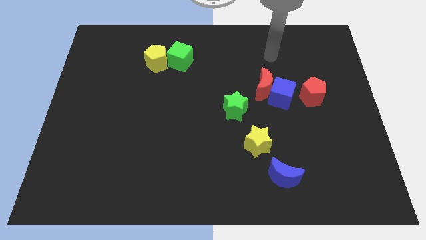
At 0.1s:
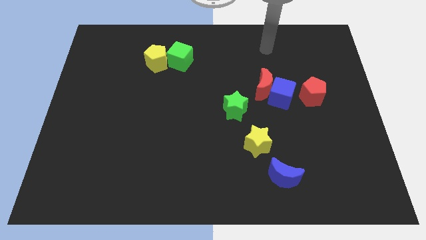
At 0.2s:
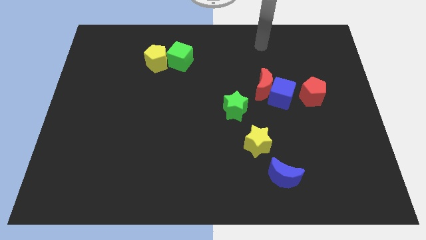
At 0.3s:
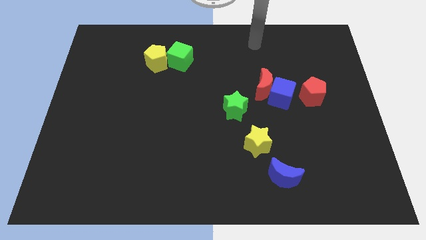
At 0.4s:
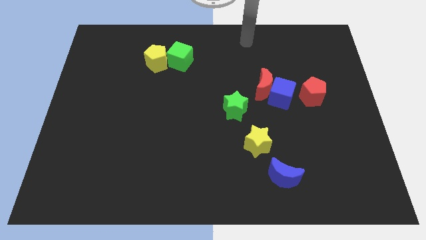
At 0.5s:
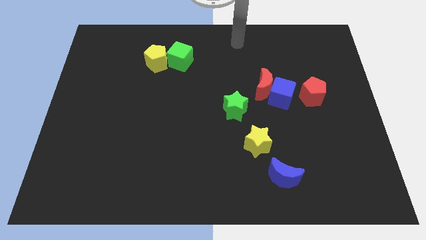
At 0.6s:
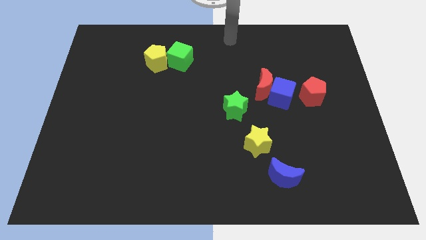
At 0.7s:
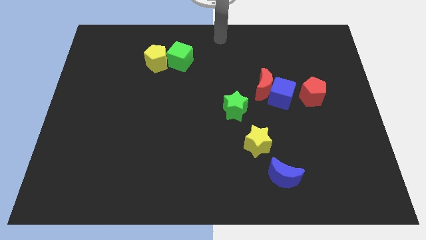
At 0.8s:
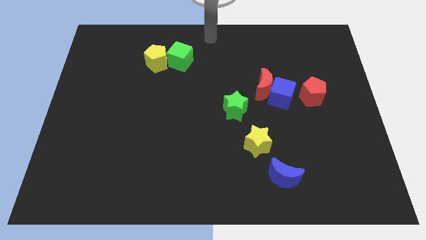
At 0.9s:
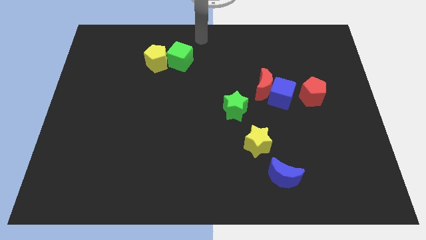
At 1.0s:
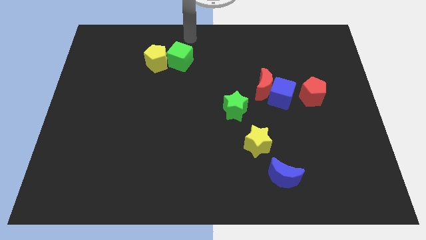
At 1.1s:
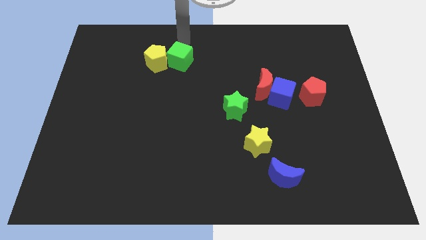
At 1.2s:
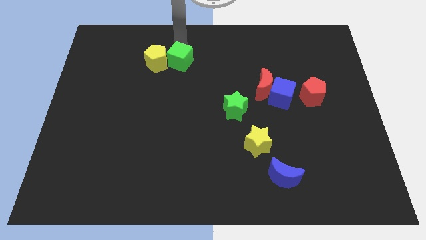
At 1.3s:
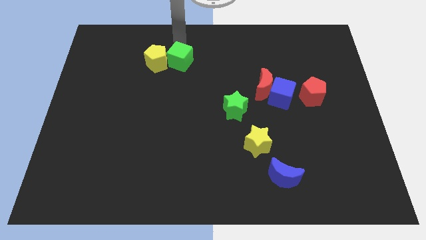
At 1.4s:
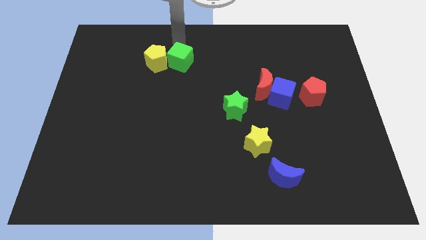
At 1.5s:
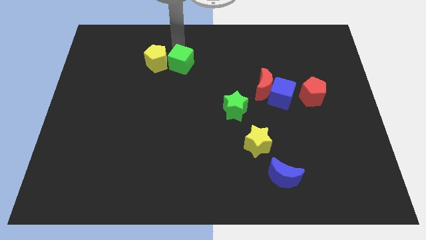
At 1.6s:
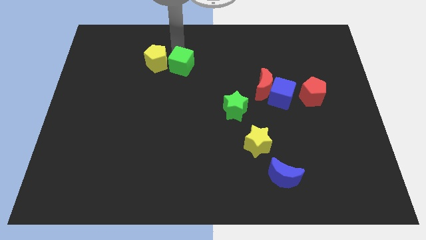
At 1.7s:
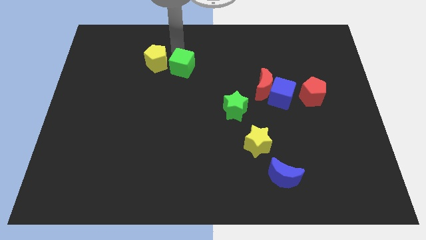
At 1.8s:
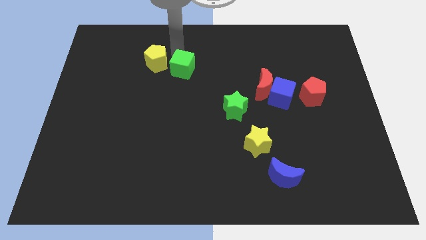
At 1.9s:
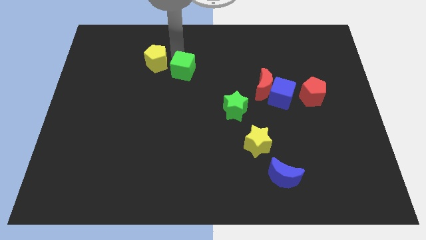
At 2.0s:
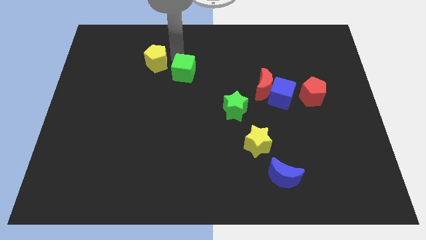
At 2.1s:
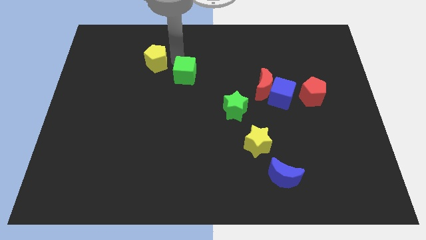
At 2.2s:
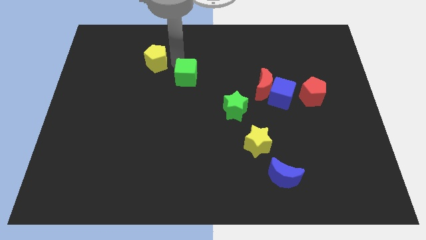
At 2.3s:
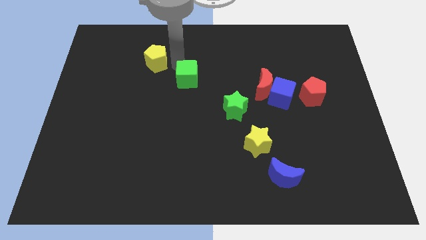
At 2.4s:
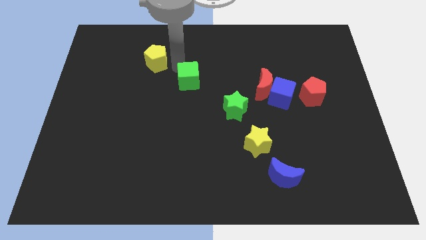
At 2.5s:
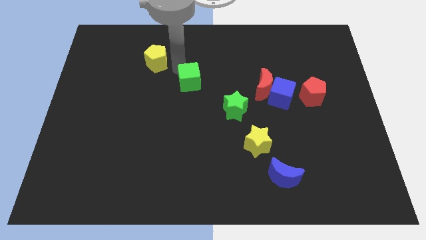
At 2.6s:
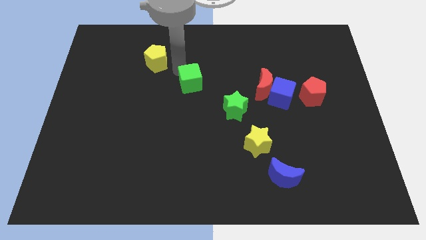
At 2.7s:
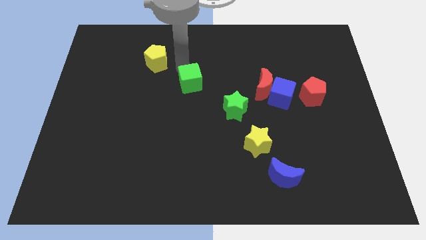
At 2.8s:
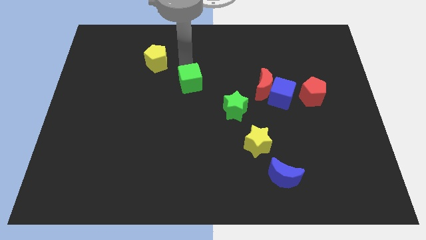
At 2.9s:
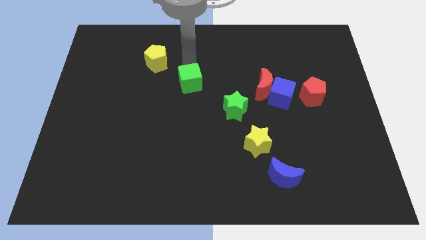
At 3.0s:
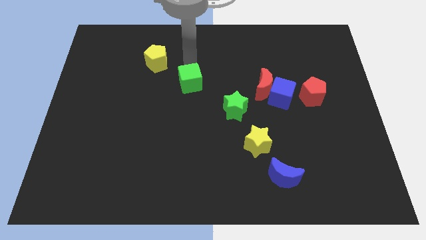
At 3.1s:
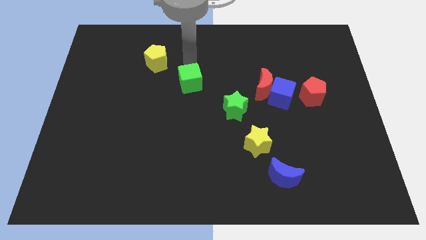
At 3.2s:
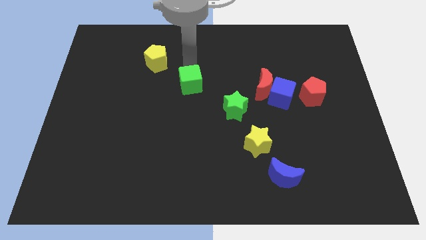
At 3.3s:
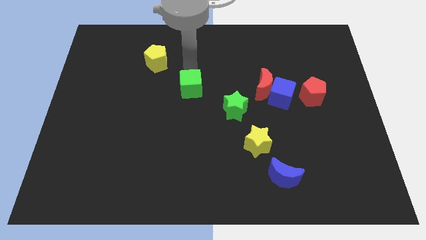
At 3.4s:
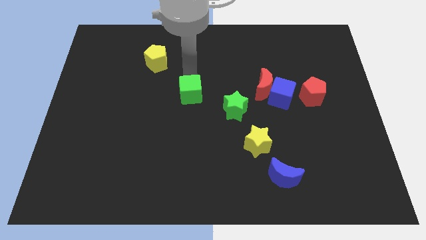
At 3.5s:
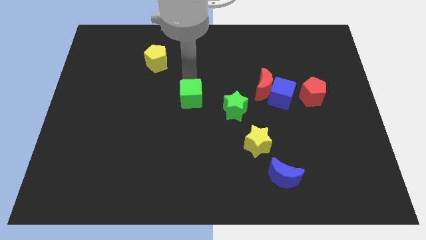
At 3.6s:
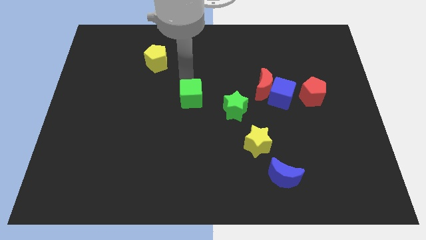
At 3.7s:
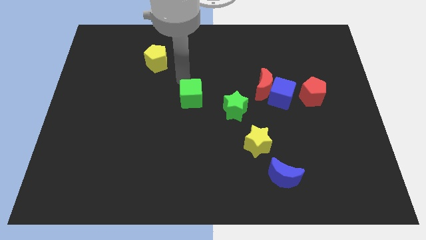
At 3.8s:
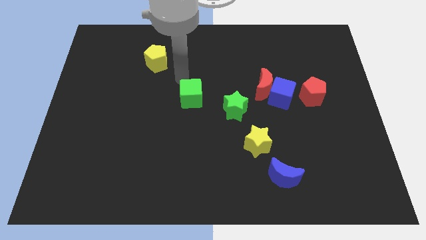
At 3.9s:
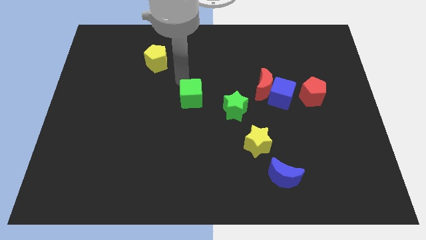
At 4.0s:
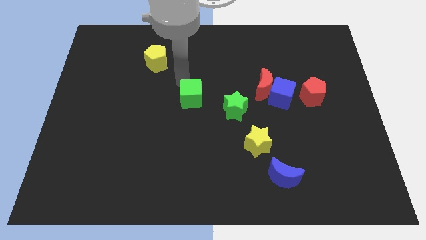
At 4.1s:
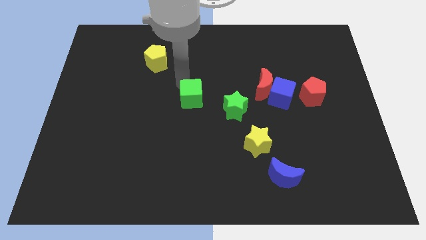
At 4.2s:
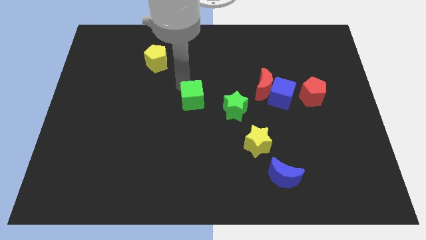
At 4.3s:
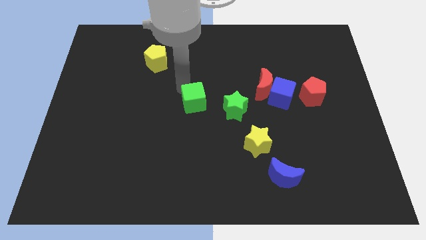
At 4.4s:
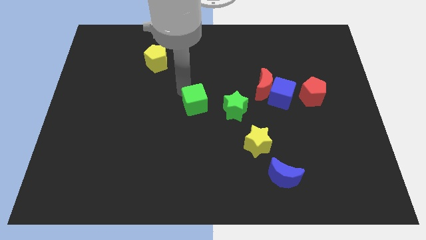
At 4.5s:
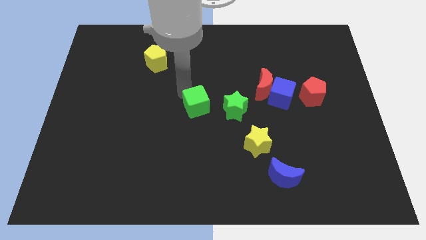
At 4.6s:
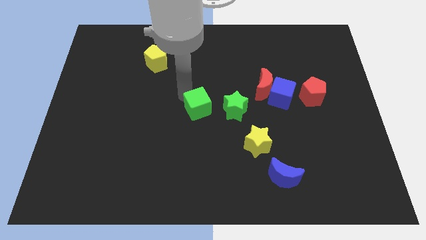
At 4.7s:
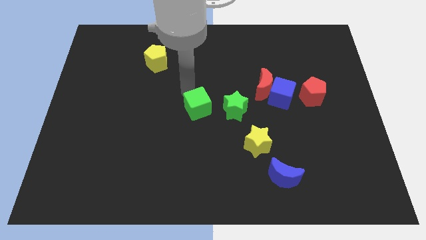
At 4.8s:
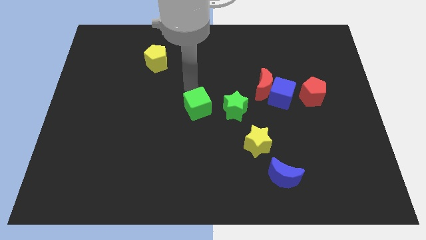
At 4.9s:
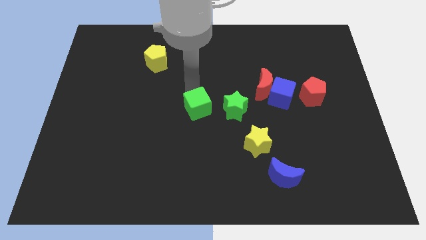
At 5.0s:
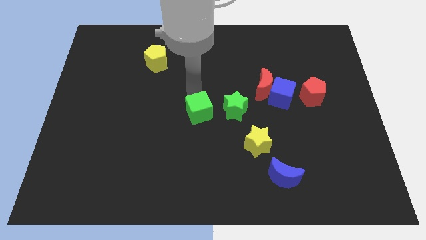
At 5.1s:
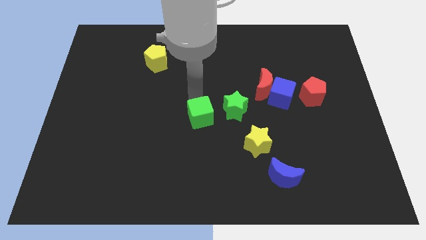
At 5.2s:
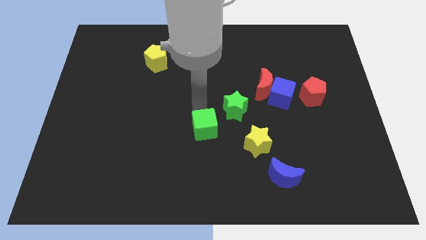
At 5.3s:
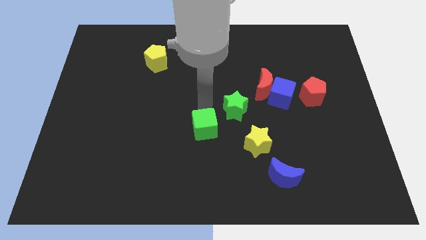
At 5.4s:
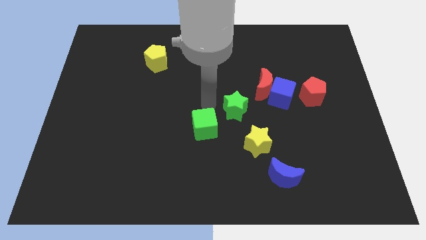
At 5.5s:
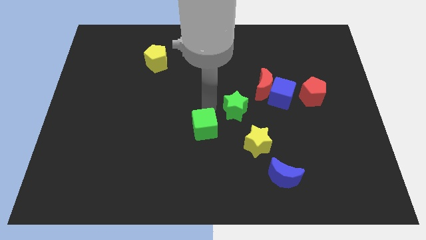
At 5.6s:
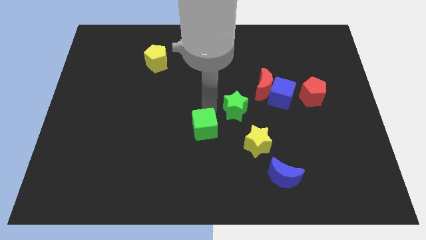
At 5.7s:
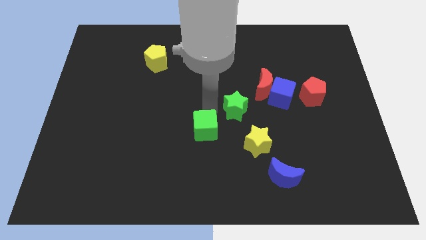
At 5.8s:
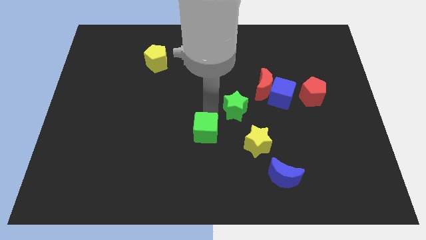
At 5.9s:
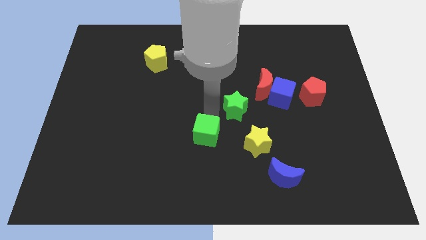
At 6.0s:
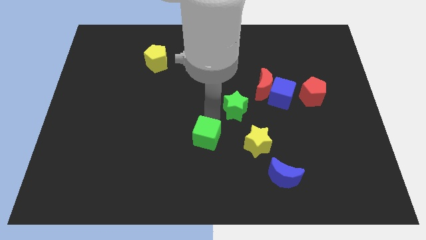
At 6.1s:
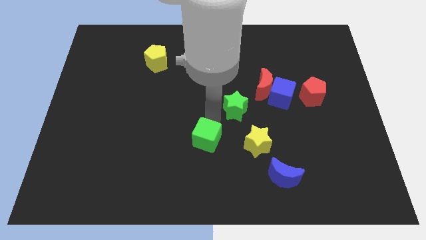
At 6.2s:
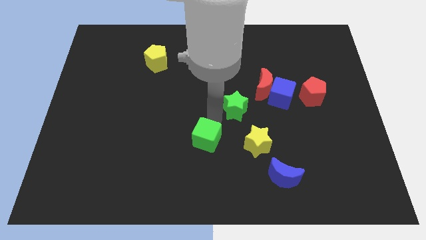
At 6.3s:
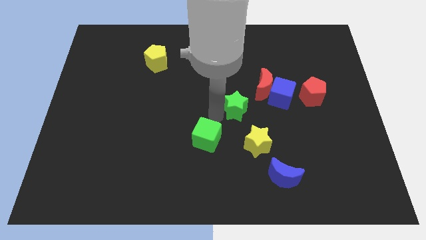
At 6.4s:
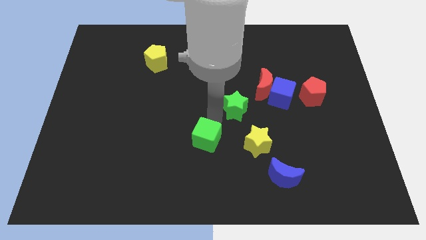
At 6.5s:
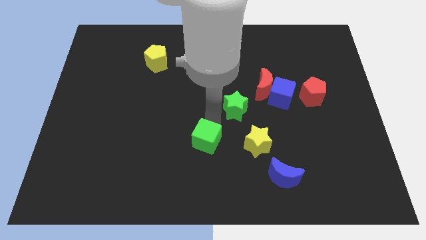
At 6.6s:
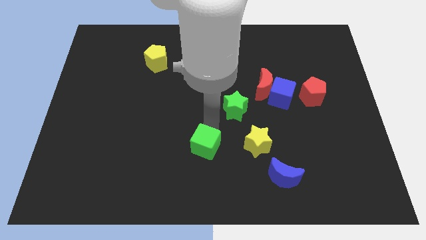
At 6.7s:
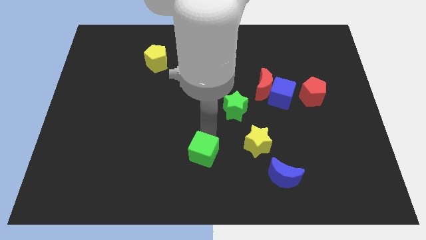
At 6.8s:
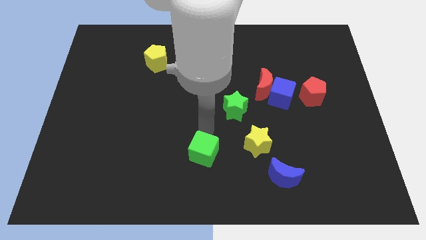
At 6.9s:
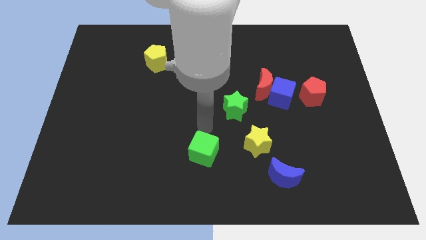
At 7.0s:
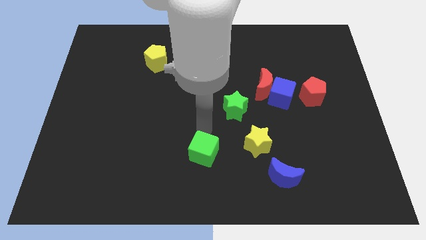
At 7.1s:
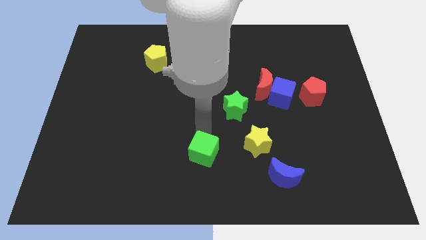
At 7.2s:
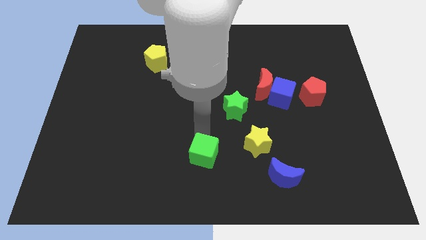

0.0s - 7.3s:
push the green cube to the bottom side
